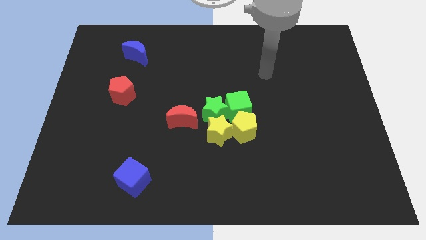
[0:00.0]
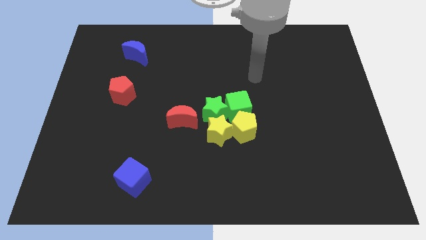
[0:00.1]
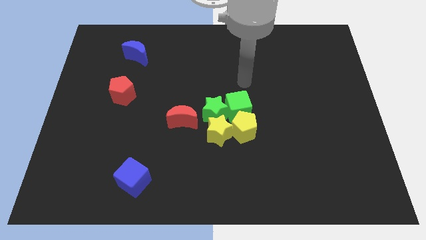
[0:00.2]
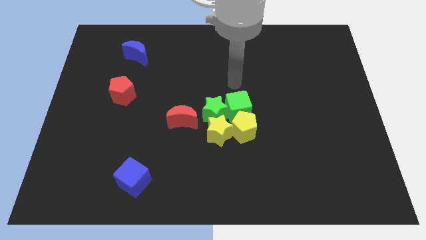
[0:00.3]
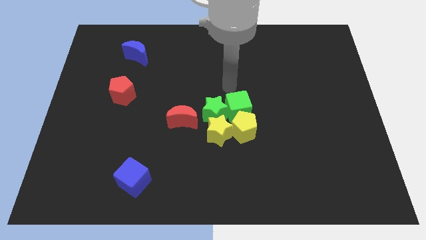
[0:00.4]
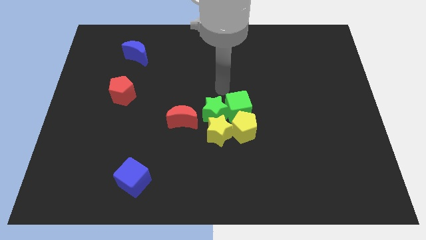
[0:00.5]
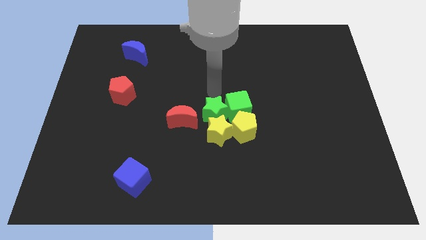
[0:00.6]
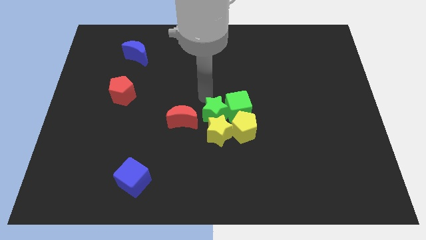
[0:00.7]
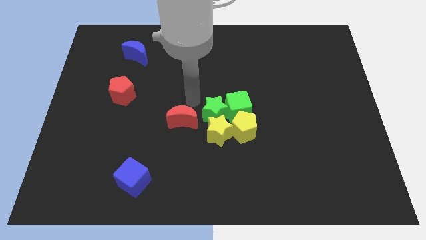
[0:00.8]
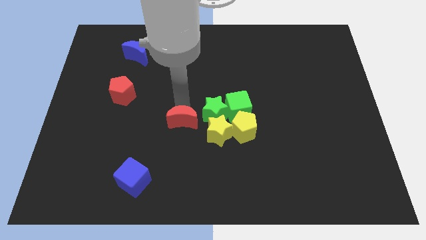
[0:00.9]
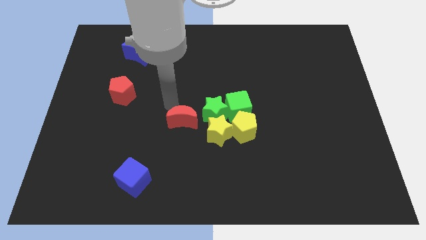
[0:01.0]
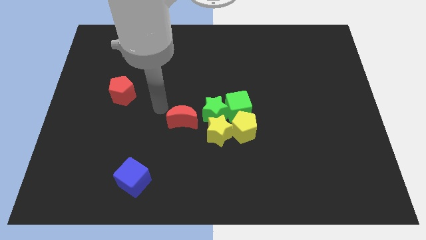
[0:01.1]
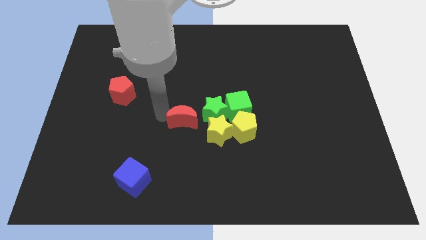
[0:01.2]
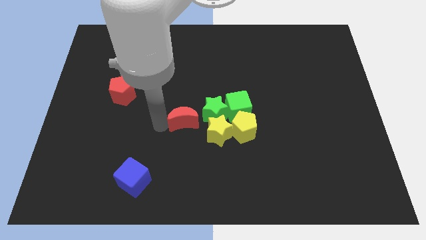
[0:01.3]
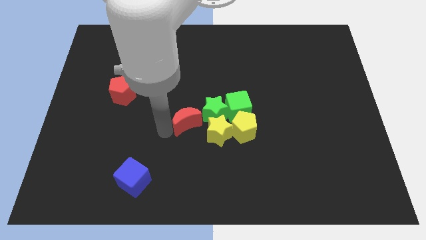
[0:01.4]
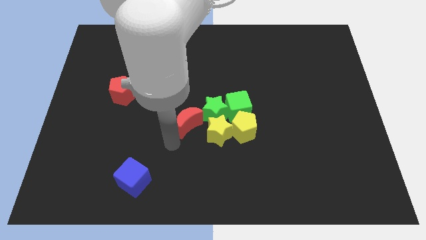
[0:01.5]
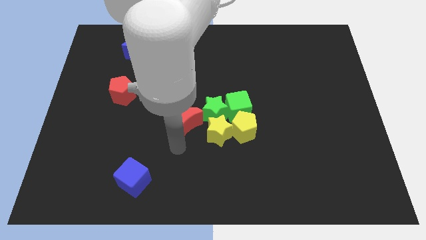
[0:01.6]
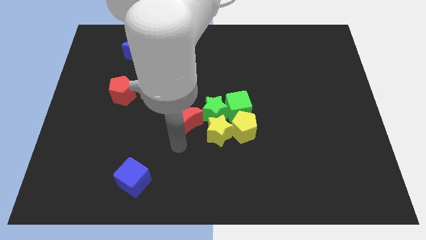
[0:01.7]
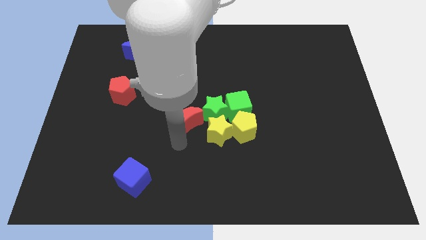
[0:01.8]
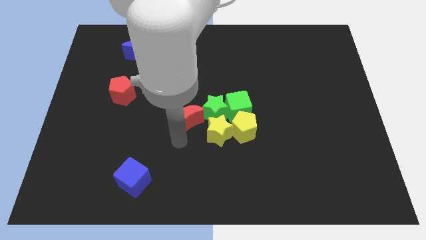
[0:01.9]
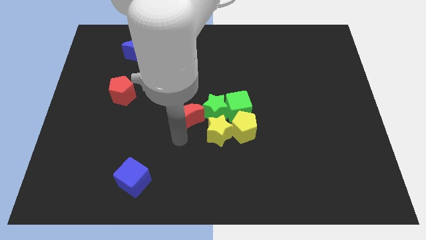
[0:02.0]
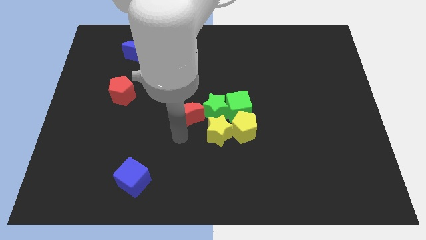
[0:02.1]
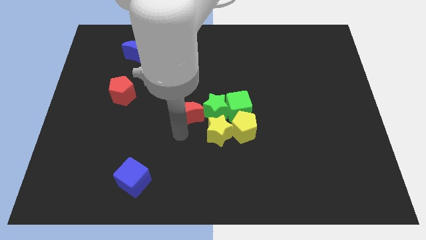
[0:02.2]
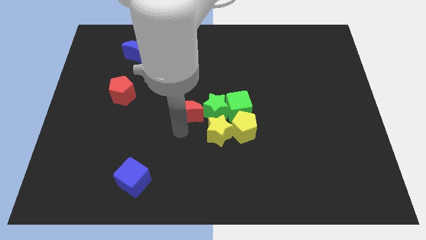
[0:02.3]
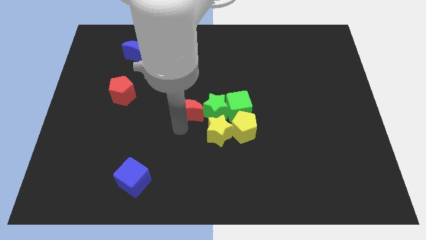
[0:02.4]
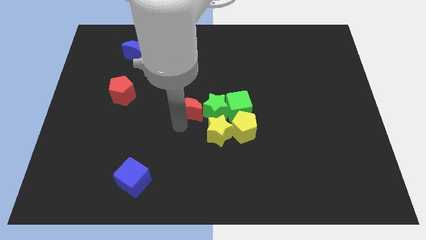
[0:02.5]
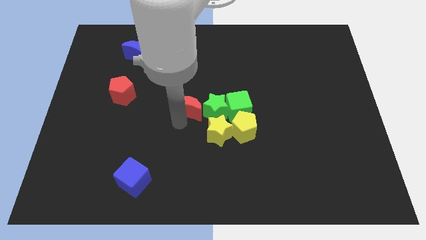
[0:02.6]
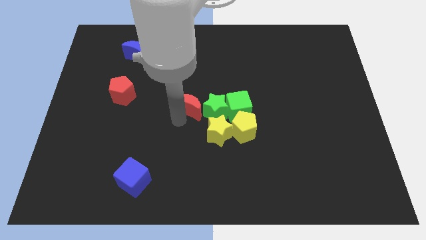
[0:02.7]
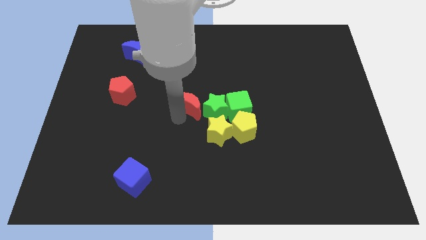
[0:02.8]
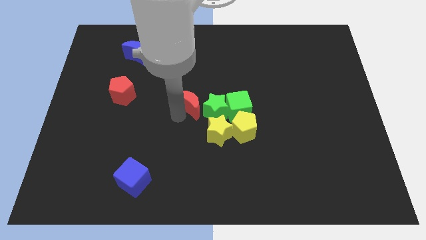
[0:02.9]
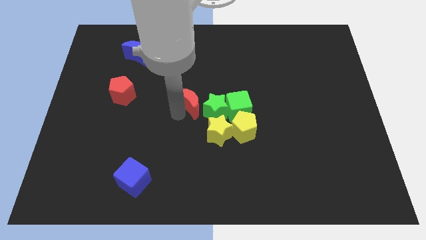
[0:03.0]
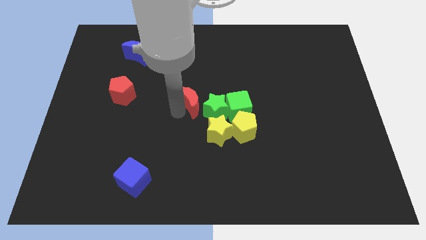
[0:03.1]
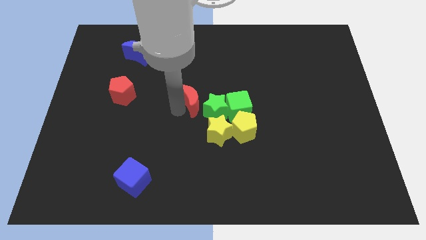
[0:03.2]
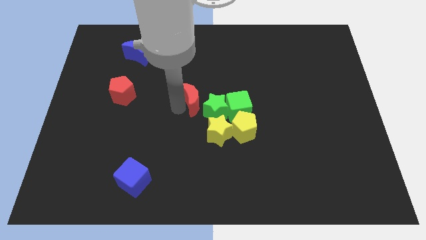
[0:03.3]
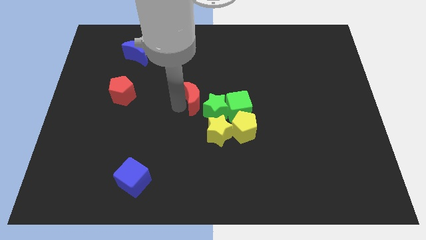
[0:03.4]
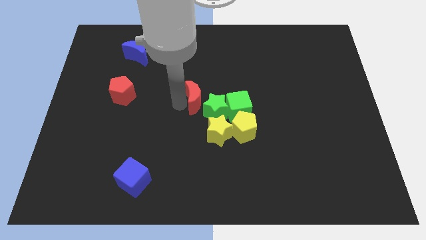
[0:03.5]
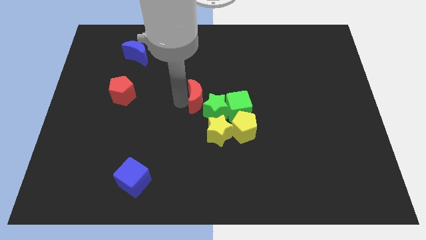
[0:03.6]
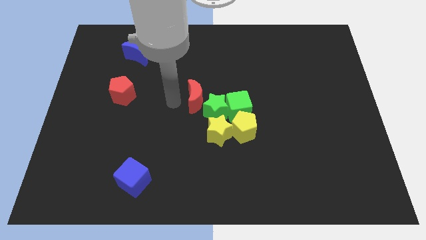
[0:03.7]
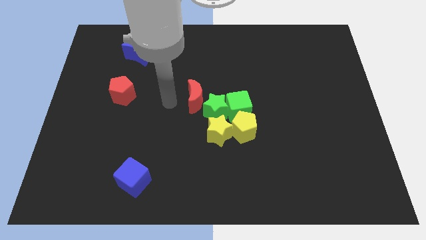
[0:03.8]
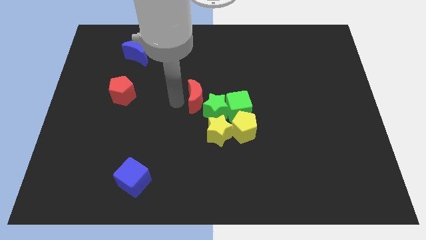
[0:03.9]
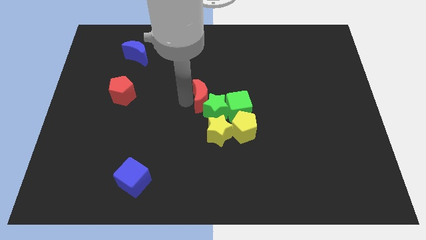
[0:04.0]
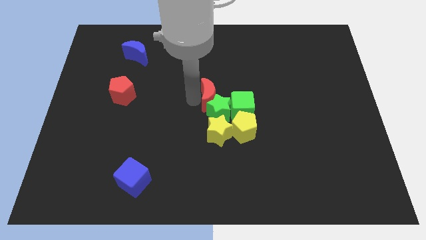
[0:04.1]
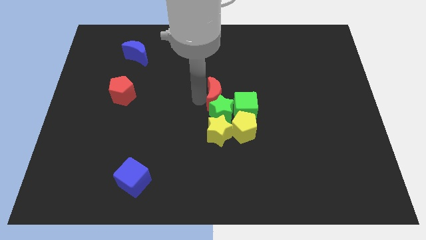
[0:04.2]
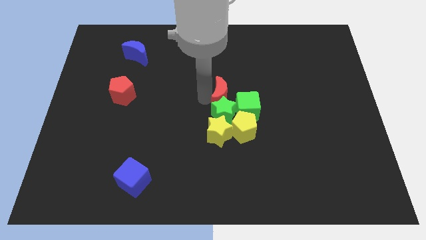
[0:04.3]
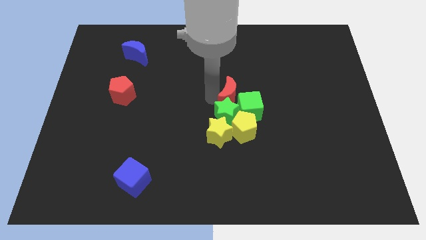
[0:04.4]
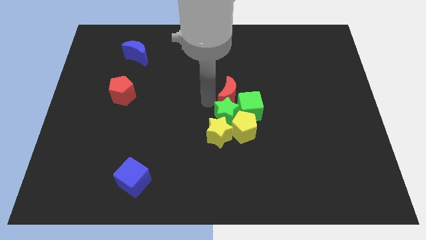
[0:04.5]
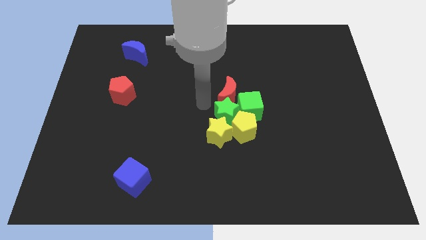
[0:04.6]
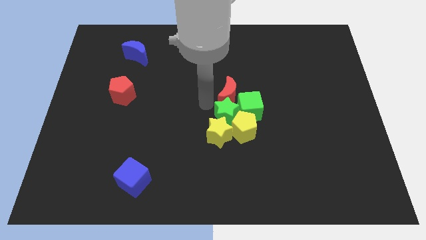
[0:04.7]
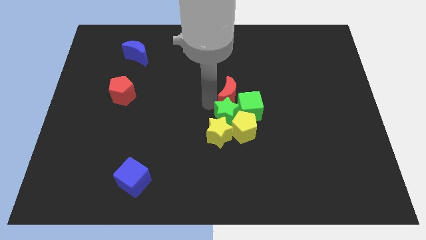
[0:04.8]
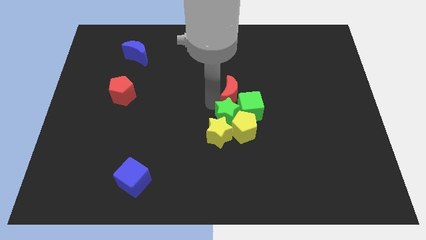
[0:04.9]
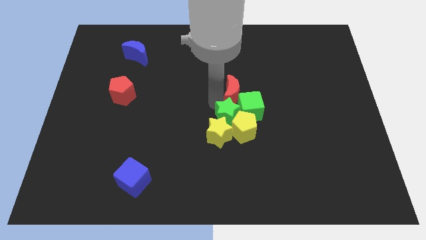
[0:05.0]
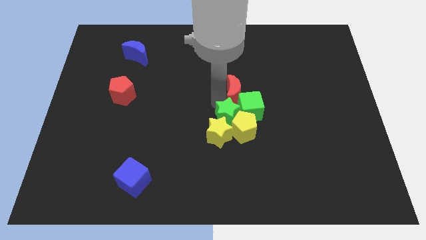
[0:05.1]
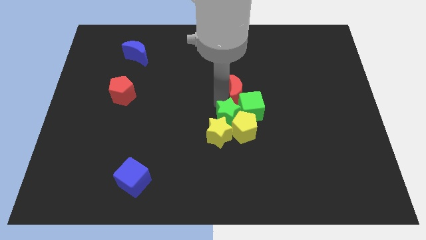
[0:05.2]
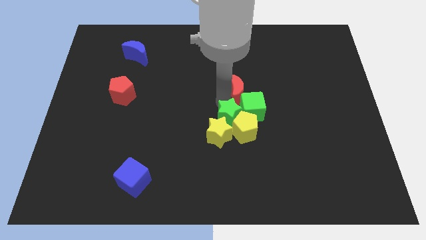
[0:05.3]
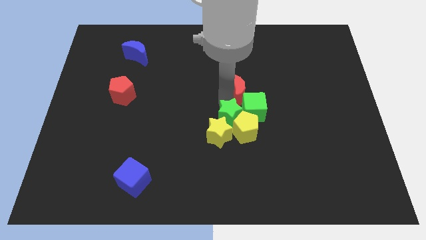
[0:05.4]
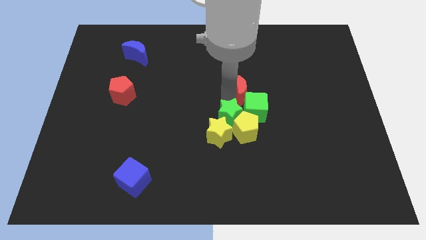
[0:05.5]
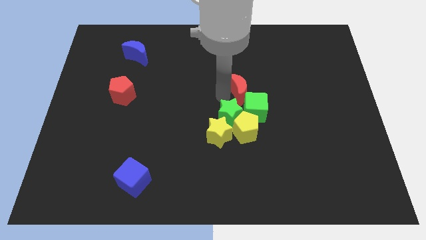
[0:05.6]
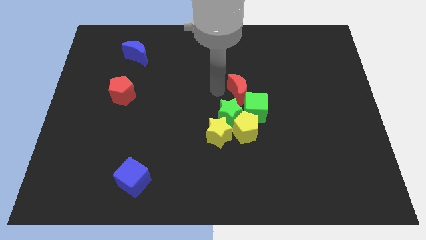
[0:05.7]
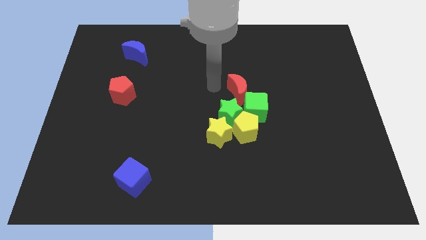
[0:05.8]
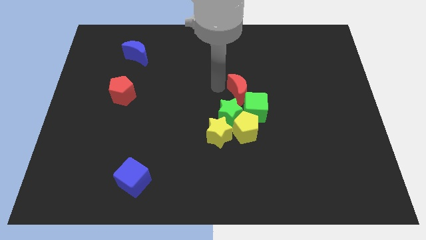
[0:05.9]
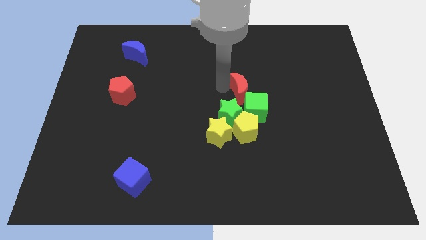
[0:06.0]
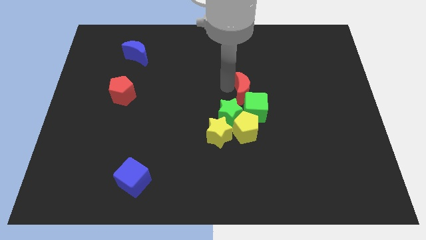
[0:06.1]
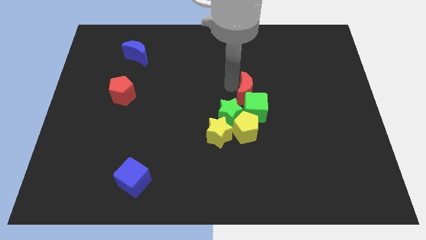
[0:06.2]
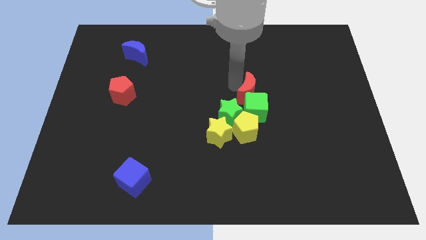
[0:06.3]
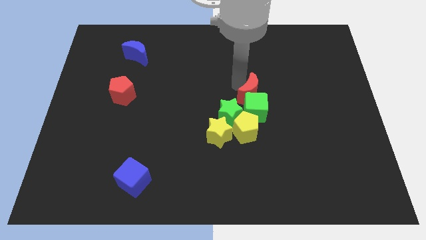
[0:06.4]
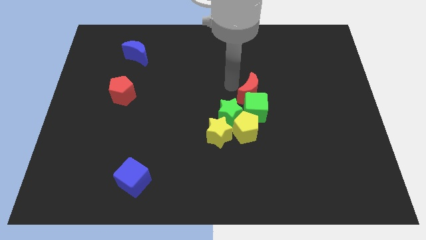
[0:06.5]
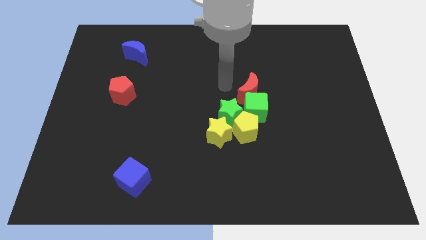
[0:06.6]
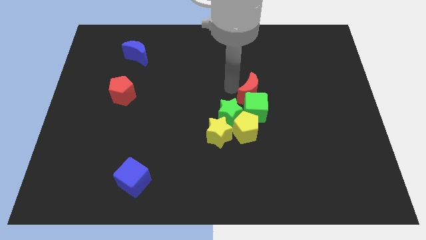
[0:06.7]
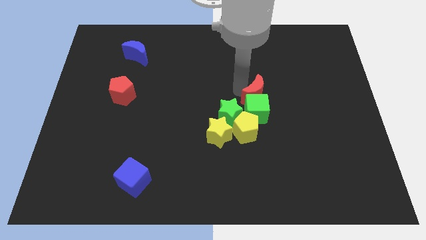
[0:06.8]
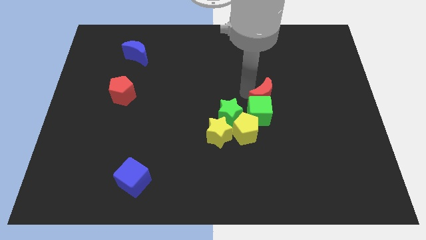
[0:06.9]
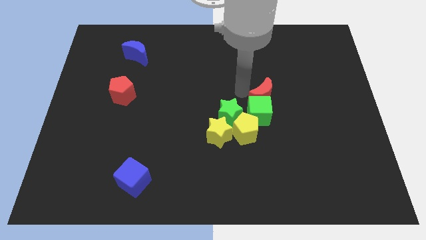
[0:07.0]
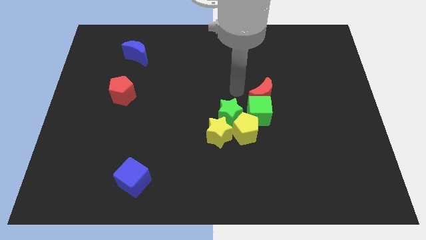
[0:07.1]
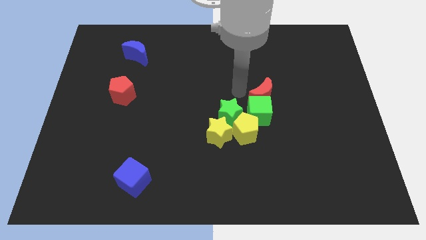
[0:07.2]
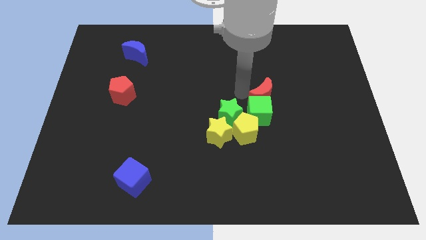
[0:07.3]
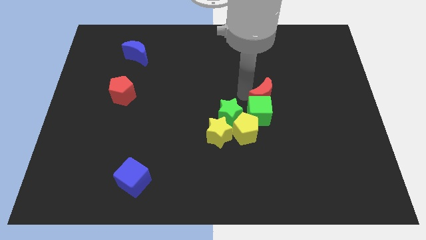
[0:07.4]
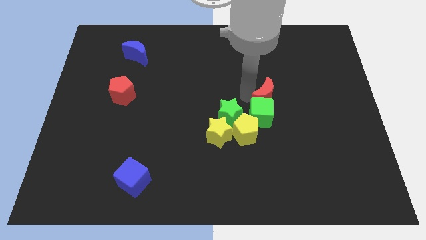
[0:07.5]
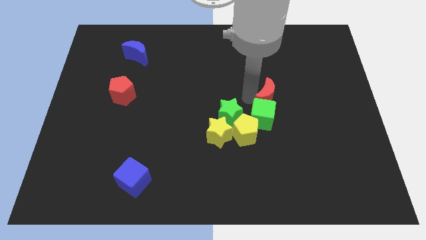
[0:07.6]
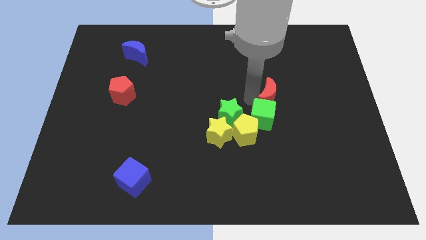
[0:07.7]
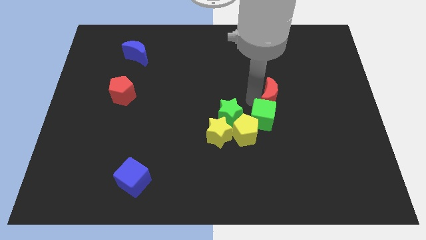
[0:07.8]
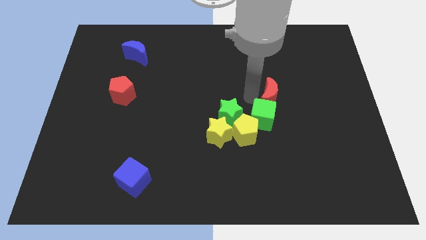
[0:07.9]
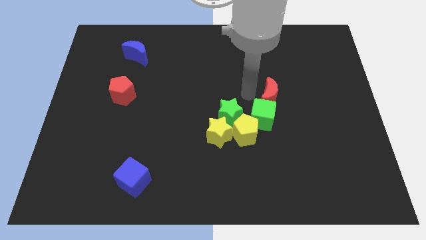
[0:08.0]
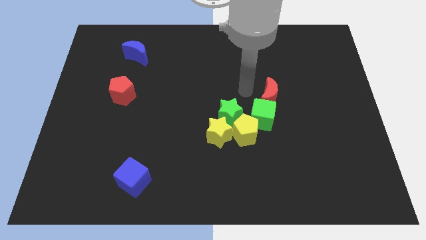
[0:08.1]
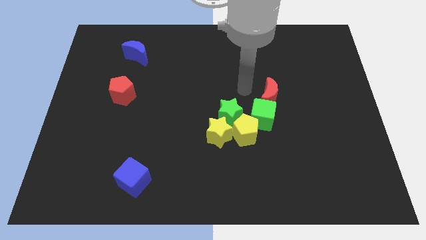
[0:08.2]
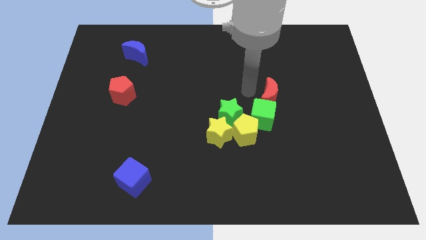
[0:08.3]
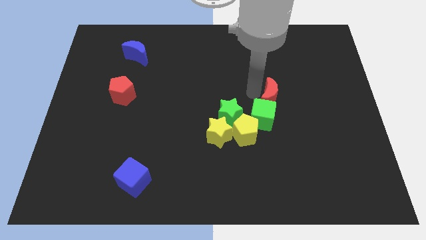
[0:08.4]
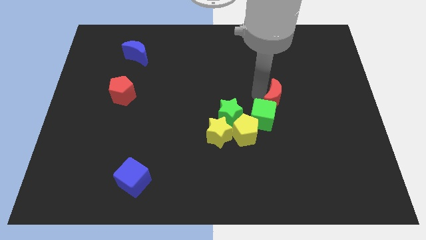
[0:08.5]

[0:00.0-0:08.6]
push the red moon to the right
